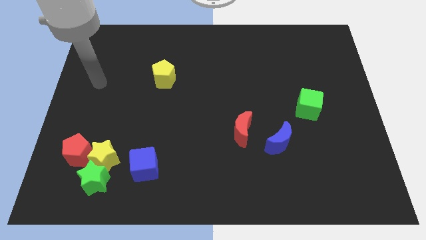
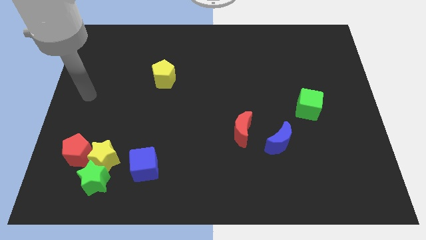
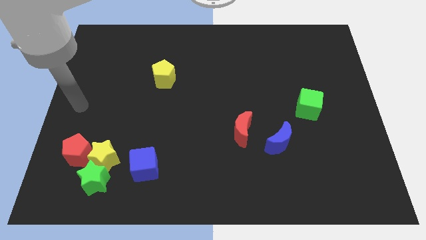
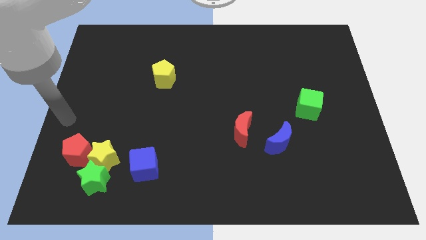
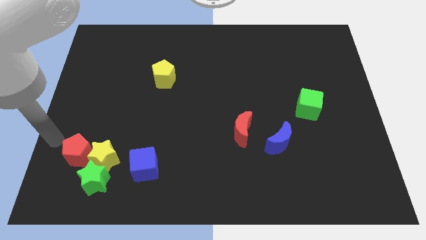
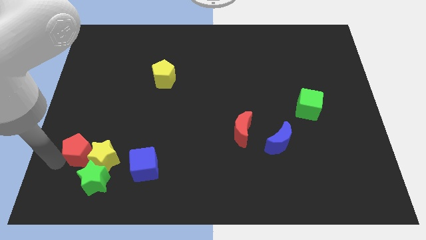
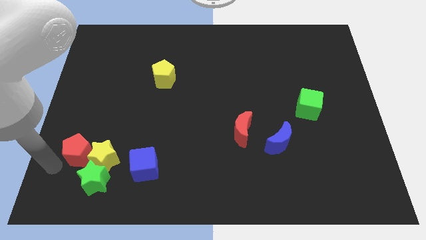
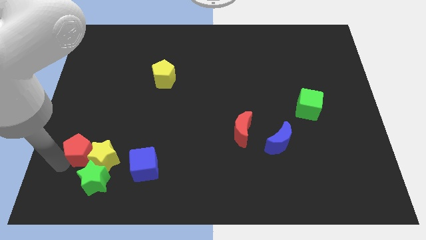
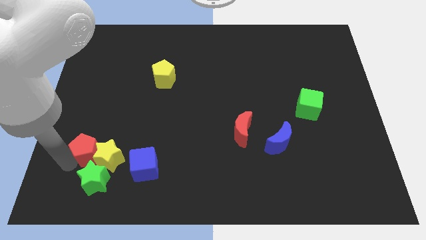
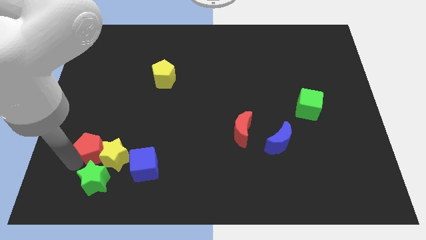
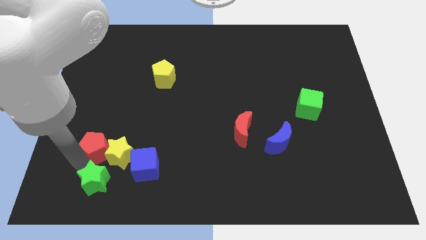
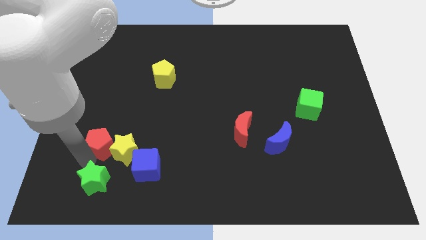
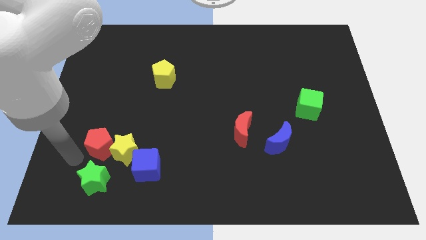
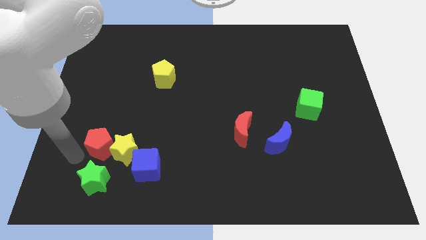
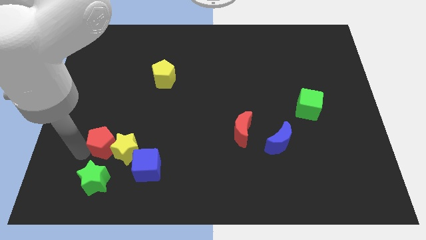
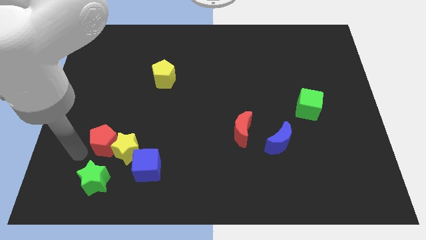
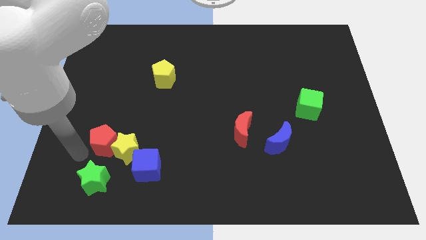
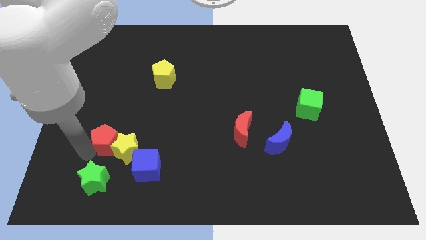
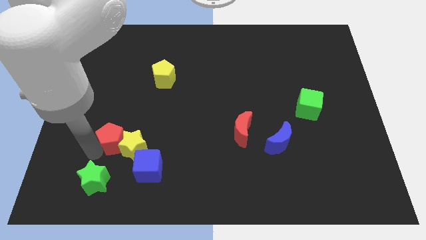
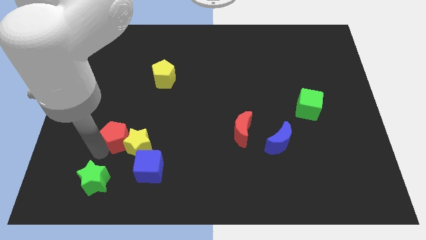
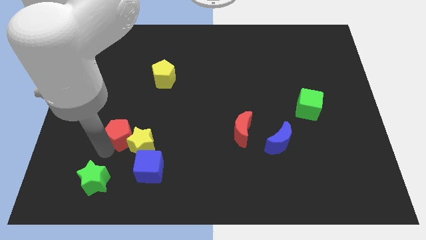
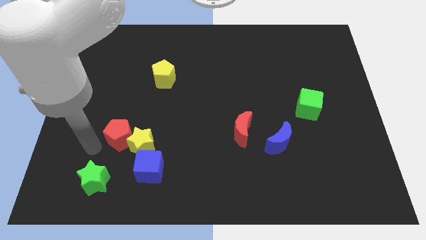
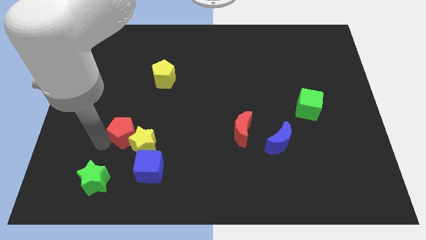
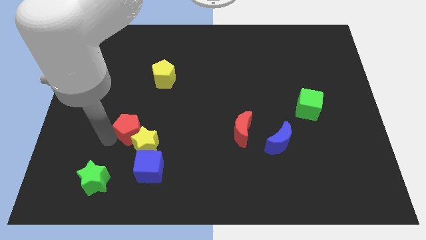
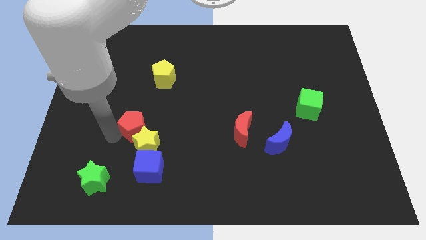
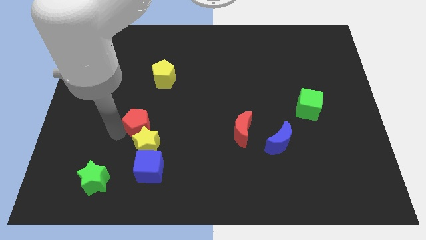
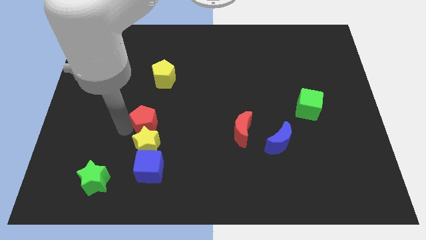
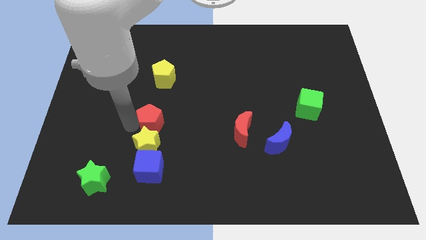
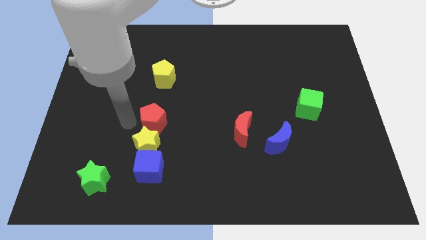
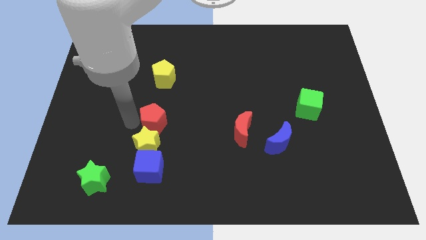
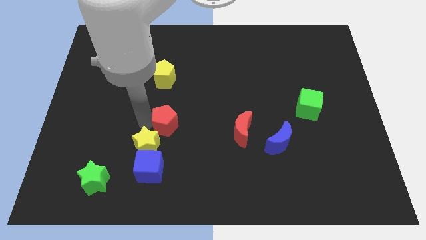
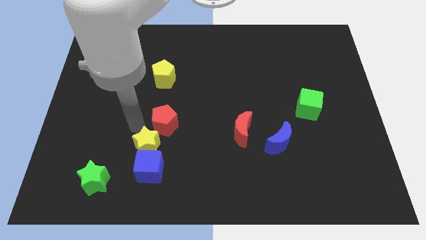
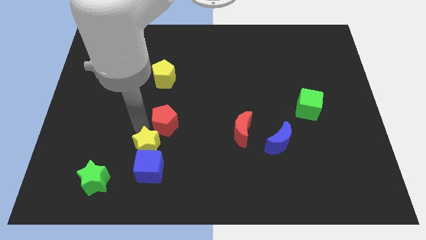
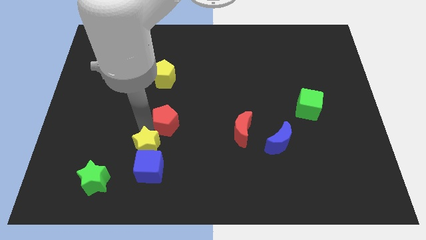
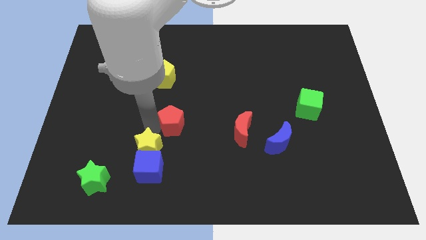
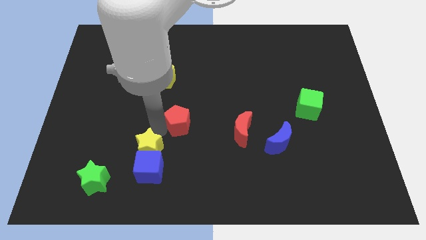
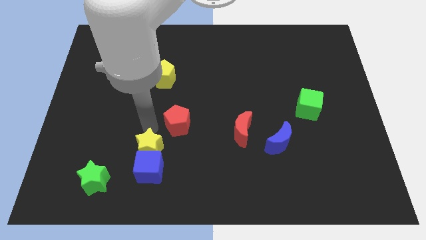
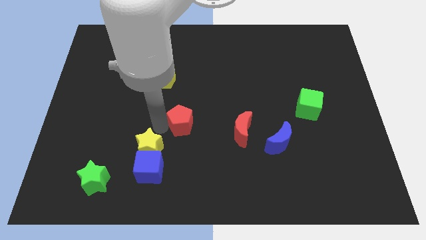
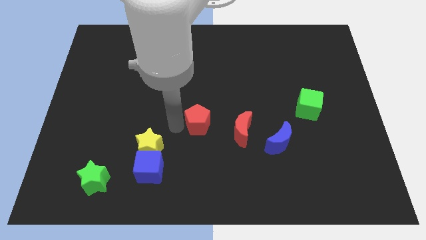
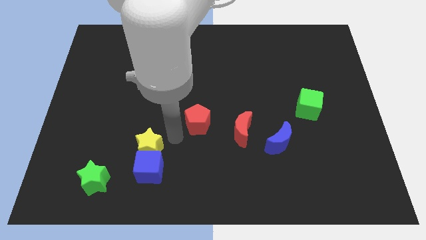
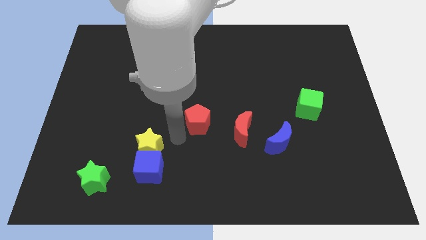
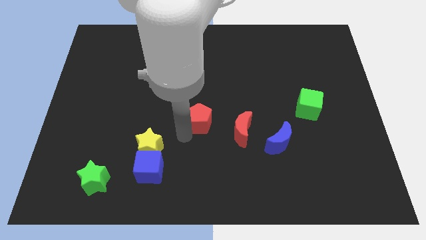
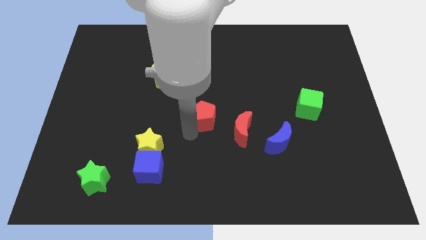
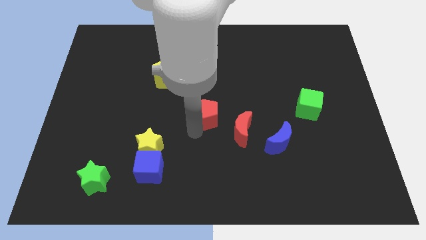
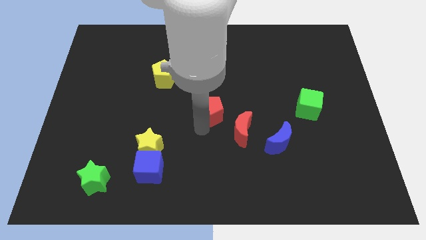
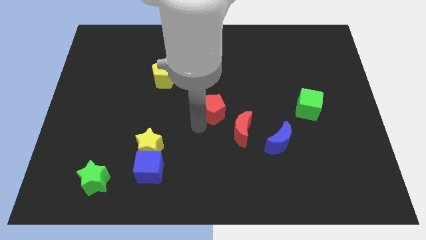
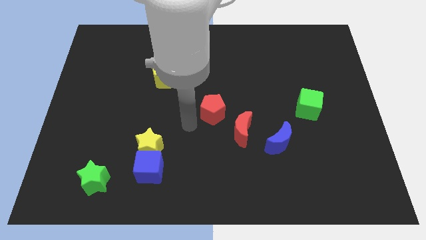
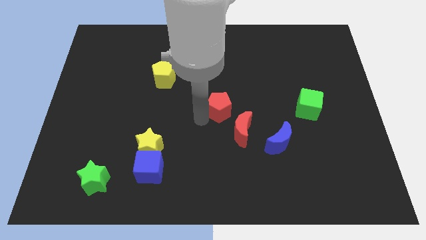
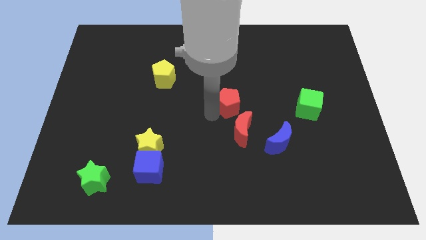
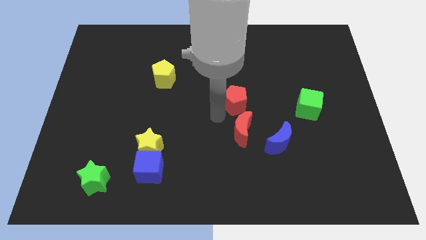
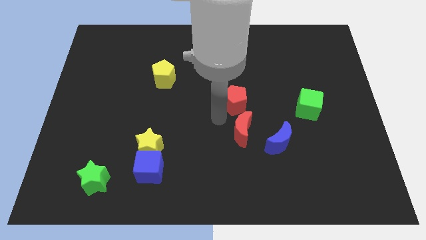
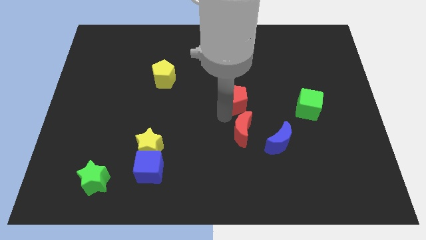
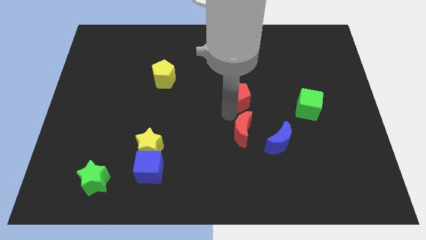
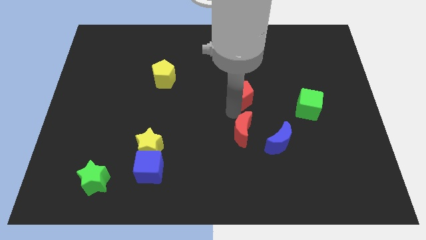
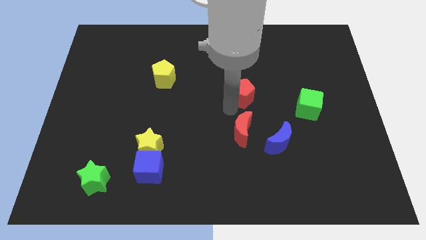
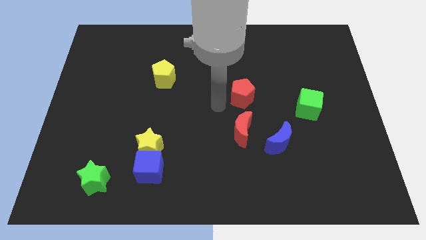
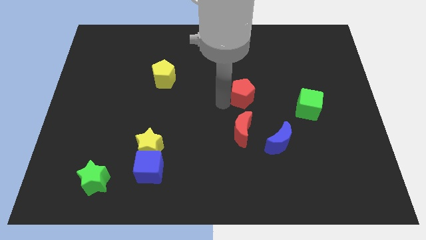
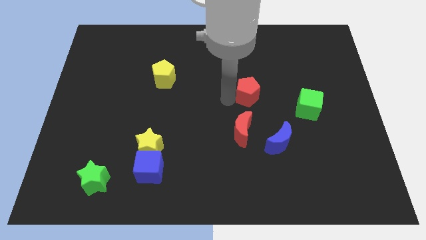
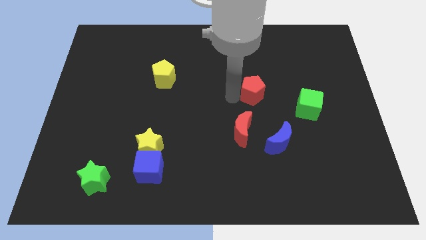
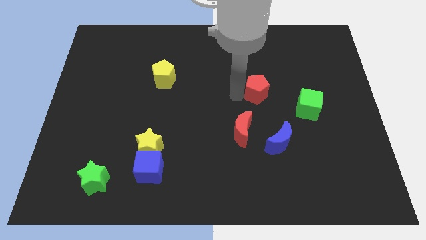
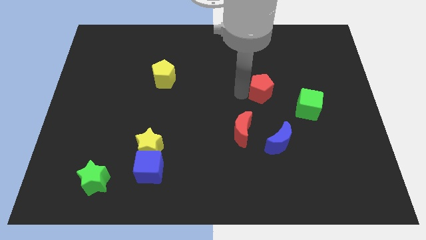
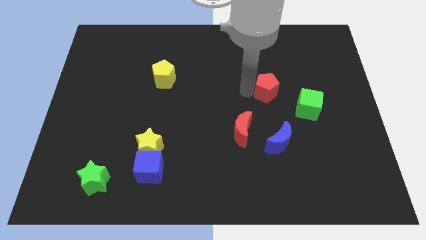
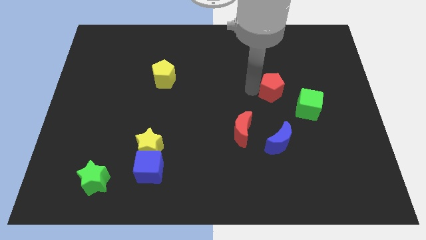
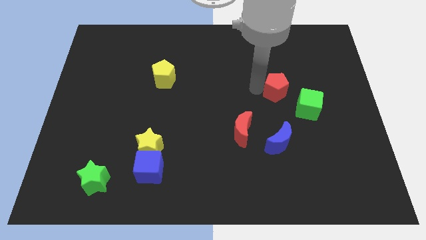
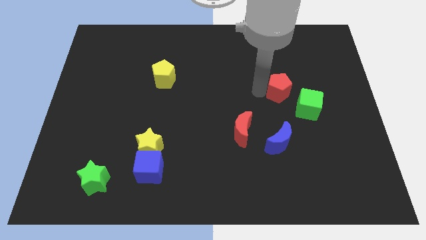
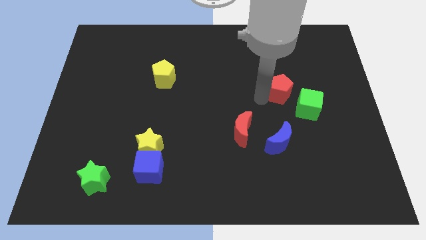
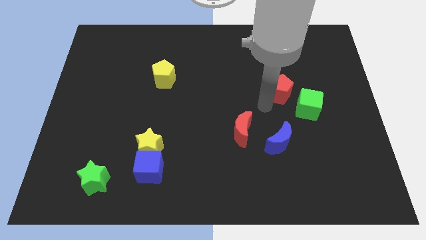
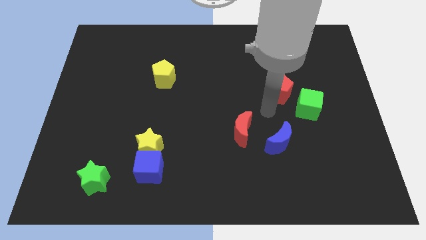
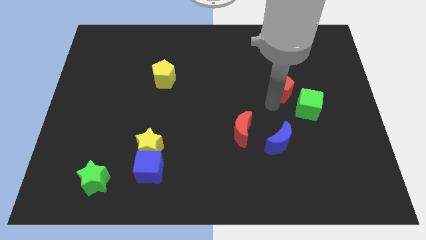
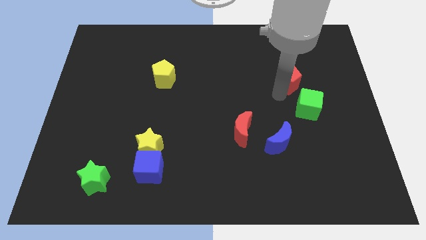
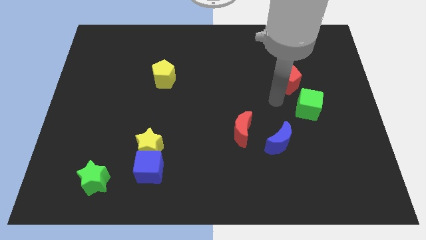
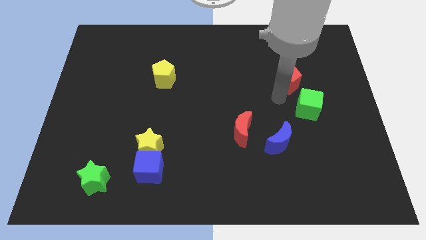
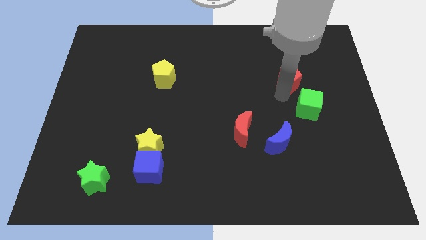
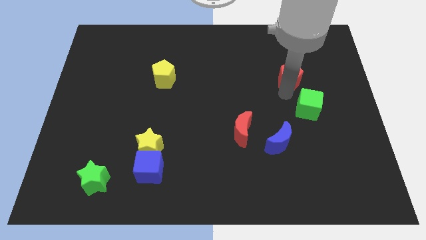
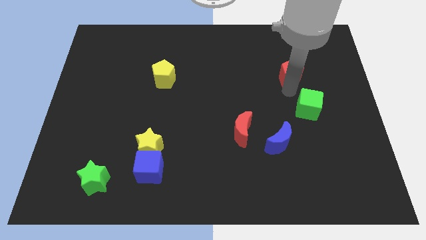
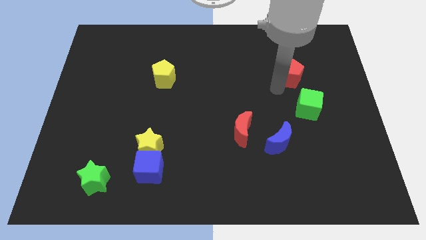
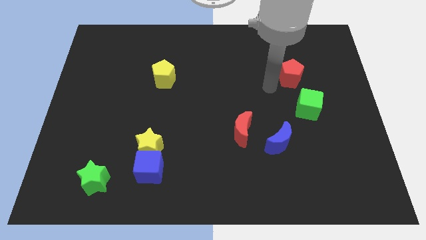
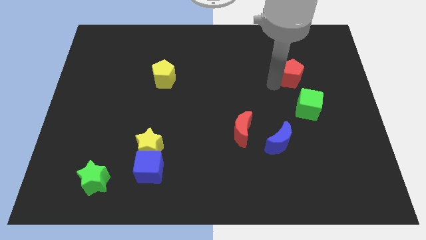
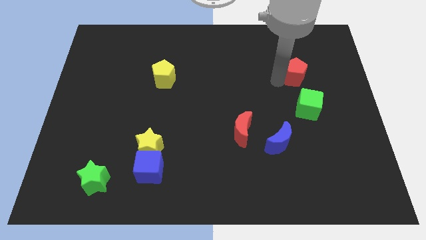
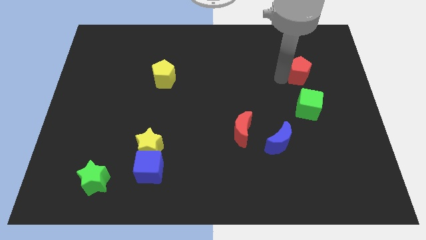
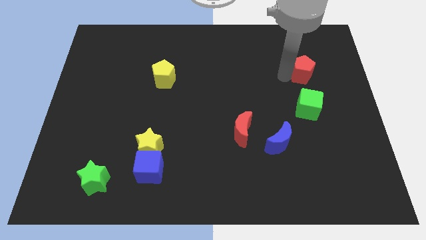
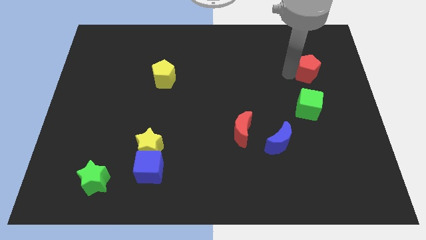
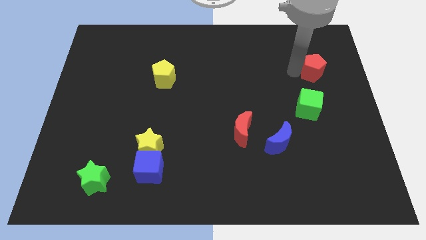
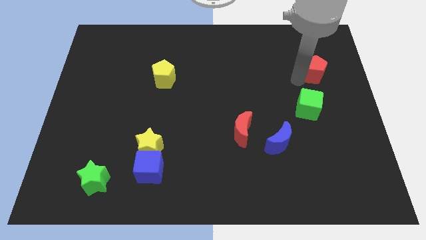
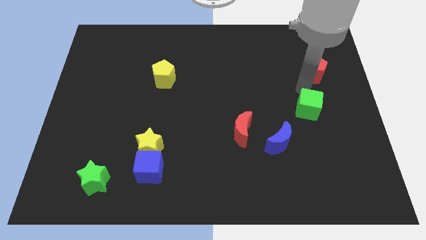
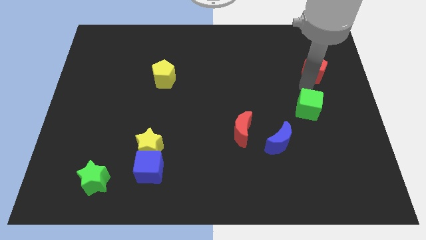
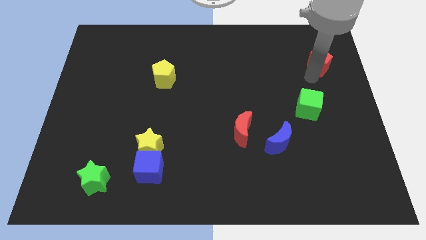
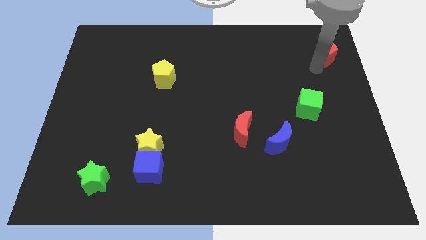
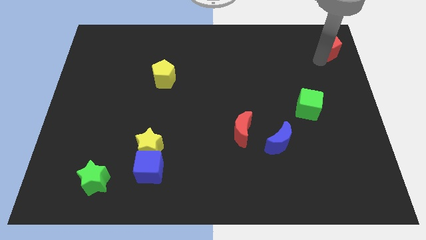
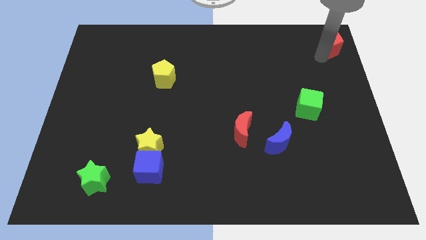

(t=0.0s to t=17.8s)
push the red pentagon to the top right of the board
